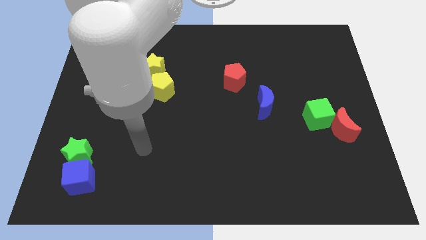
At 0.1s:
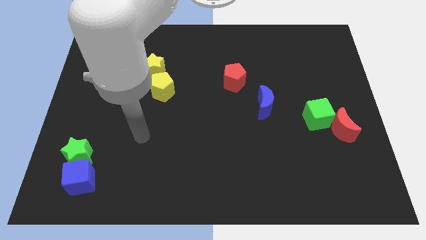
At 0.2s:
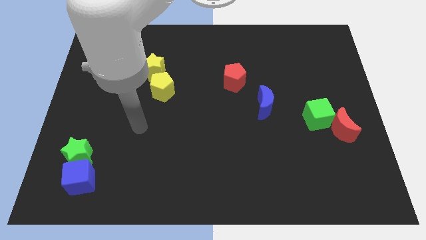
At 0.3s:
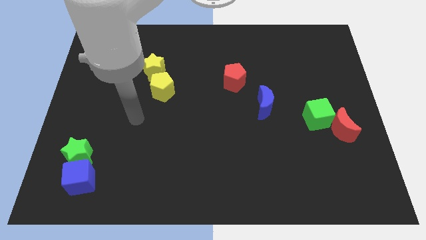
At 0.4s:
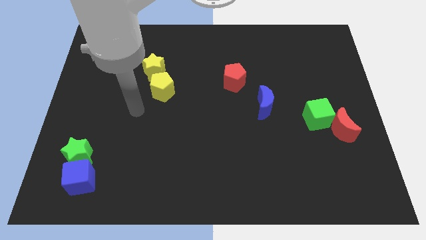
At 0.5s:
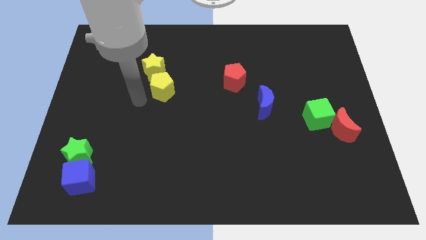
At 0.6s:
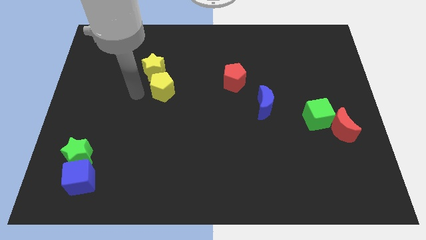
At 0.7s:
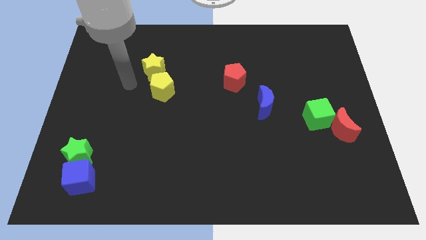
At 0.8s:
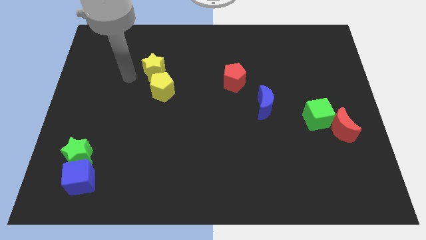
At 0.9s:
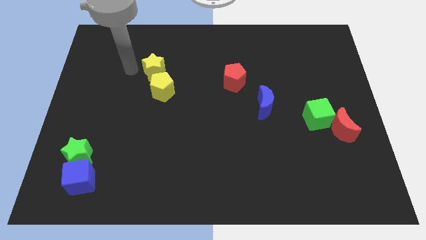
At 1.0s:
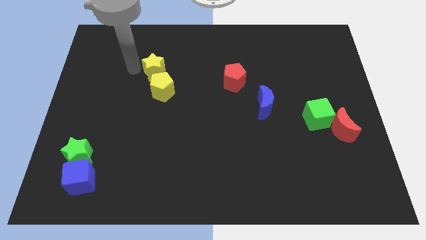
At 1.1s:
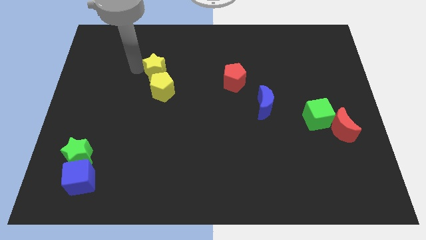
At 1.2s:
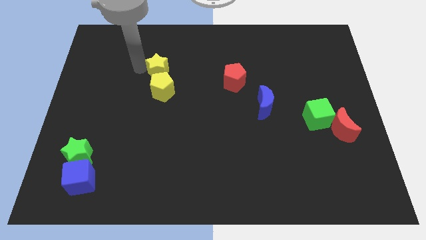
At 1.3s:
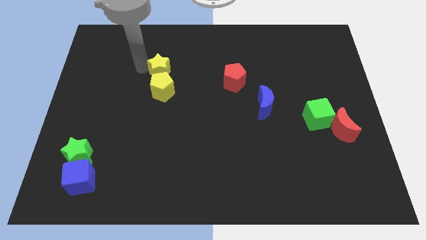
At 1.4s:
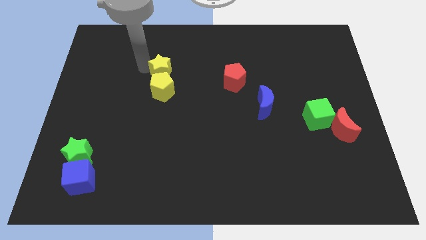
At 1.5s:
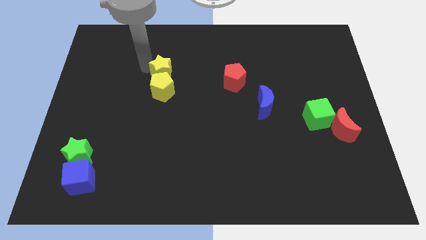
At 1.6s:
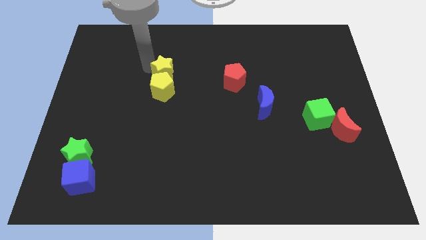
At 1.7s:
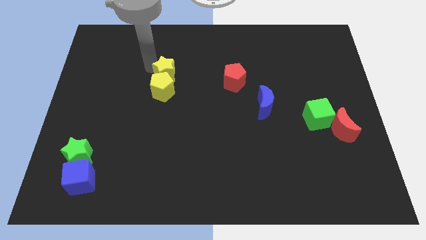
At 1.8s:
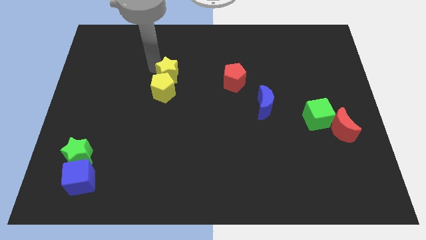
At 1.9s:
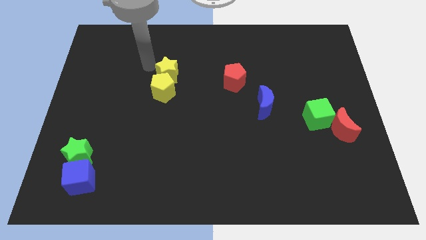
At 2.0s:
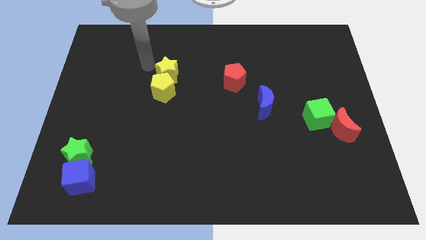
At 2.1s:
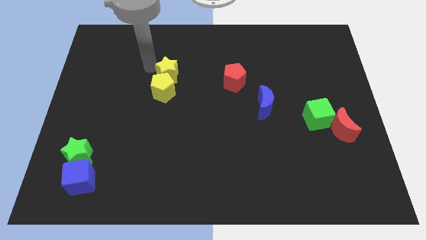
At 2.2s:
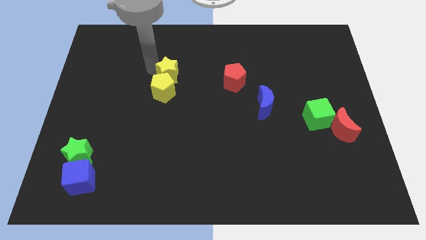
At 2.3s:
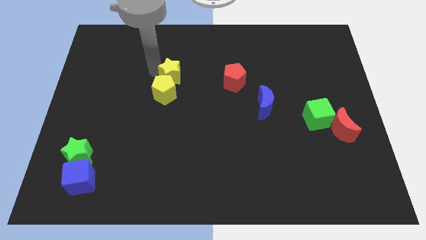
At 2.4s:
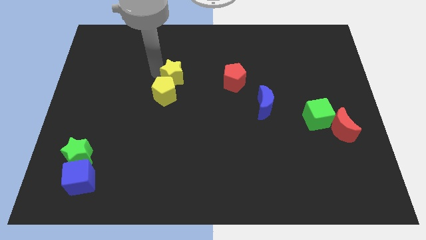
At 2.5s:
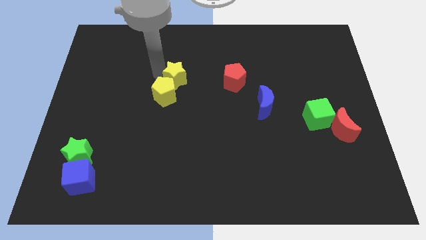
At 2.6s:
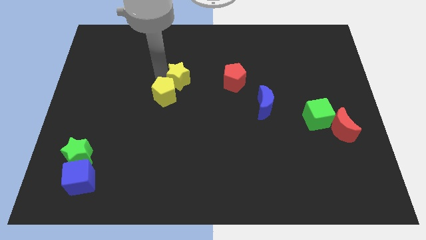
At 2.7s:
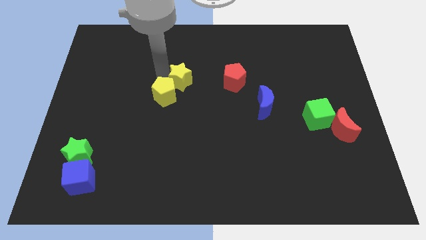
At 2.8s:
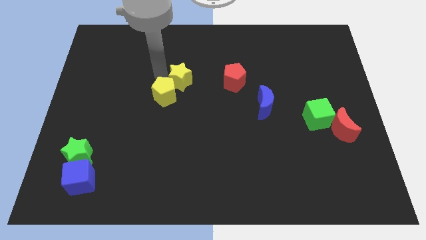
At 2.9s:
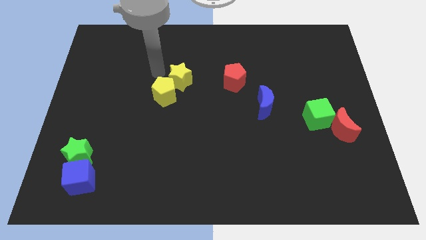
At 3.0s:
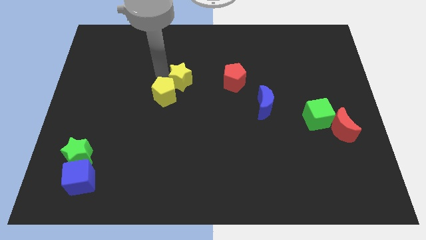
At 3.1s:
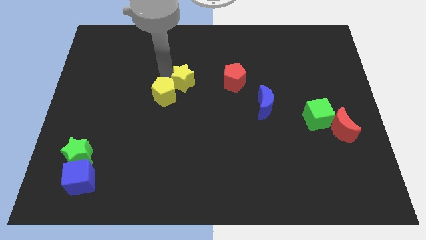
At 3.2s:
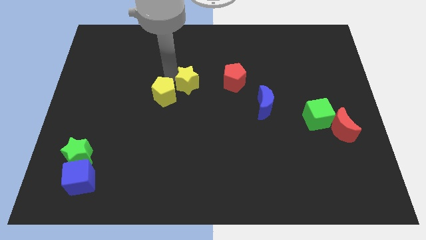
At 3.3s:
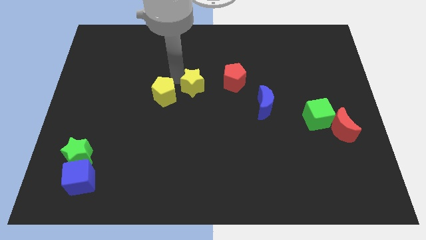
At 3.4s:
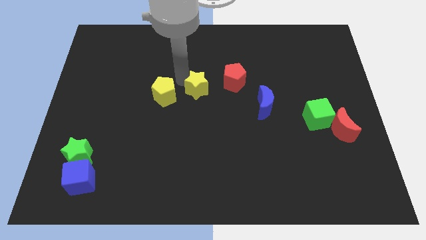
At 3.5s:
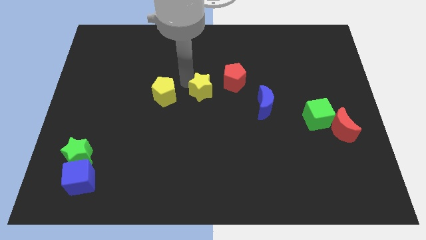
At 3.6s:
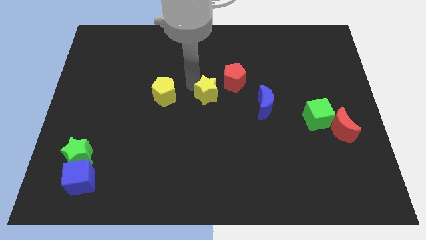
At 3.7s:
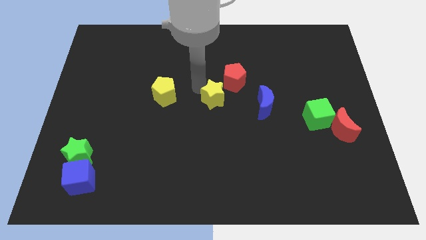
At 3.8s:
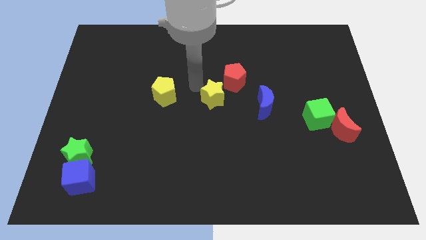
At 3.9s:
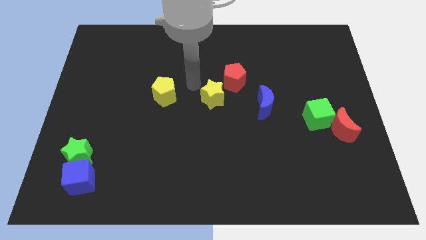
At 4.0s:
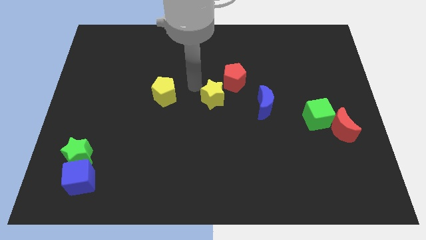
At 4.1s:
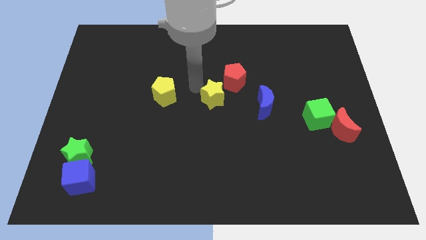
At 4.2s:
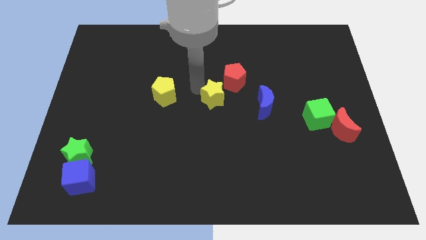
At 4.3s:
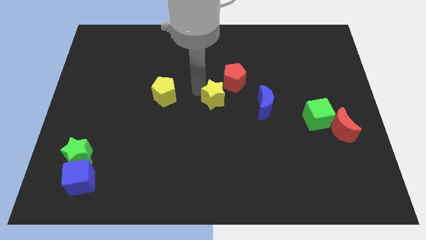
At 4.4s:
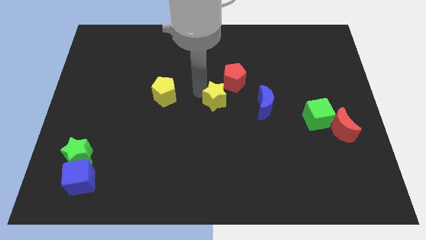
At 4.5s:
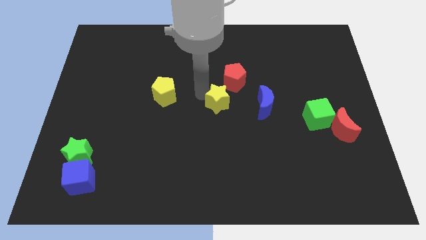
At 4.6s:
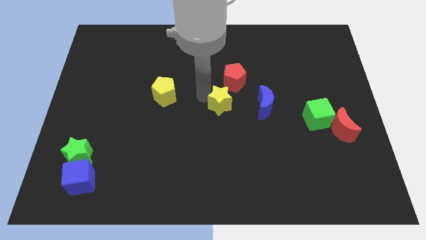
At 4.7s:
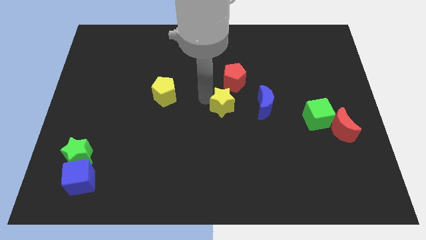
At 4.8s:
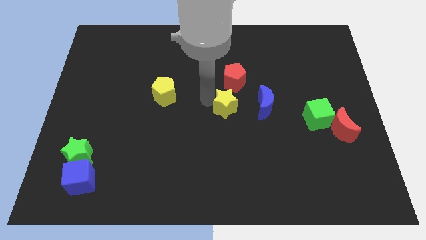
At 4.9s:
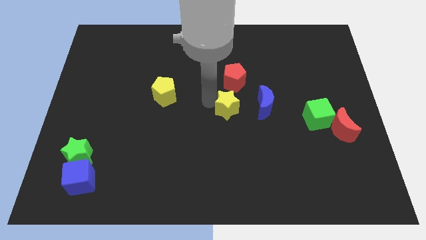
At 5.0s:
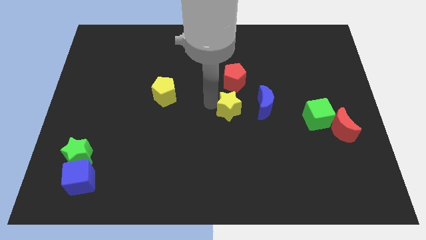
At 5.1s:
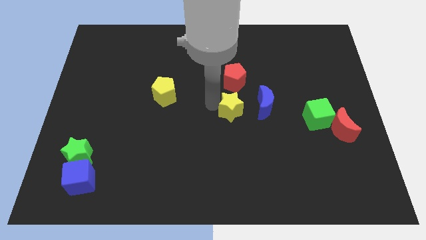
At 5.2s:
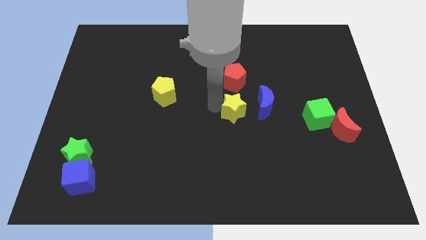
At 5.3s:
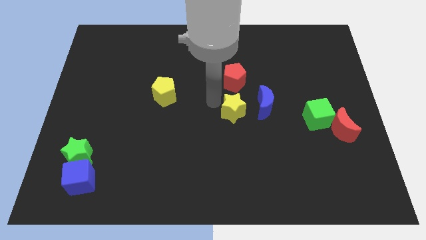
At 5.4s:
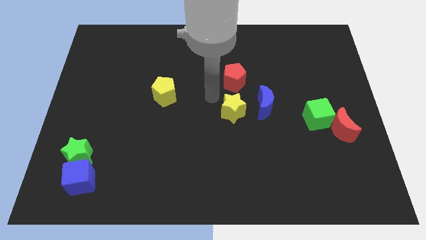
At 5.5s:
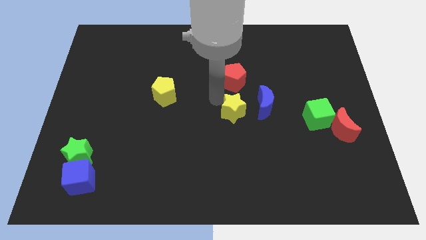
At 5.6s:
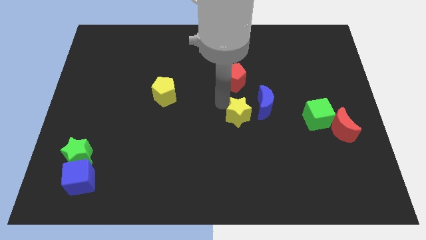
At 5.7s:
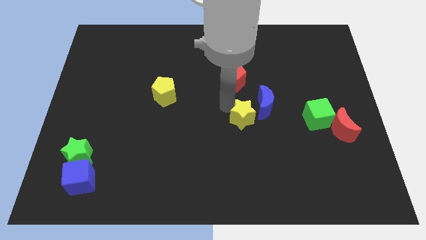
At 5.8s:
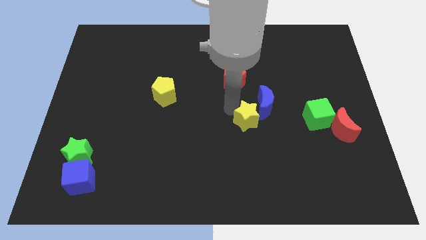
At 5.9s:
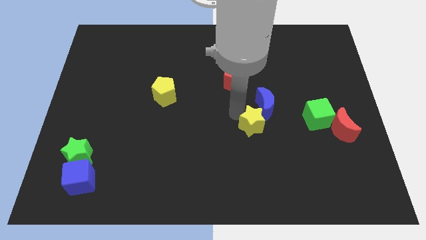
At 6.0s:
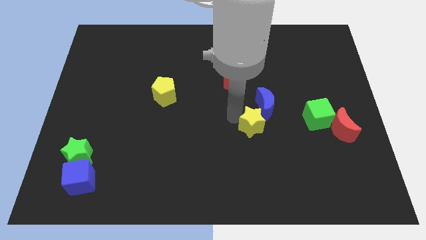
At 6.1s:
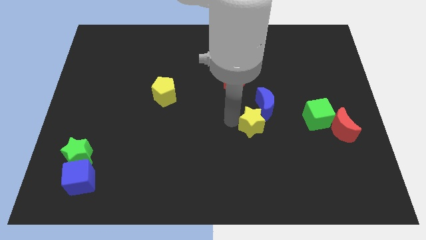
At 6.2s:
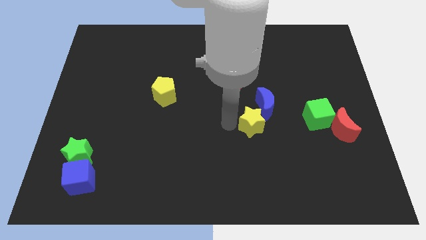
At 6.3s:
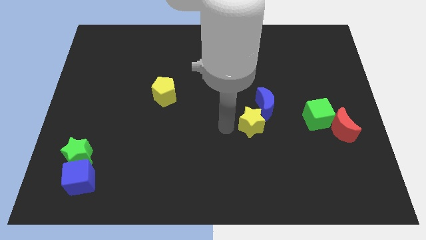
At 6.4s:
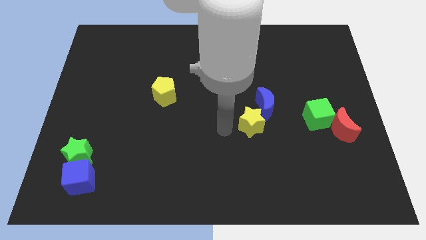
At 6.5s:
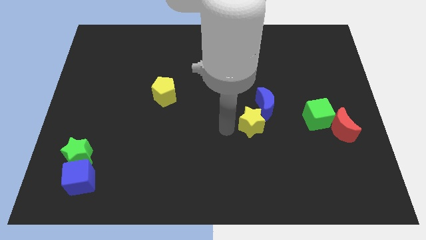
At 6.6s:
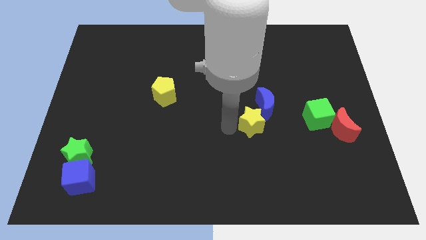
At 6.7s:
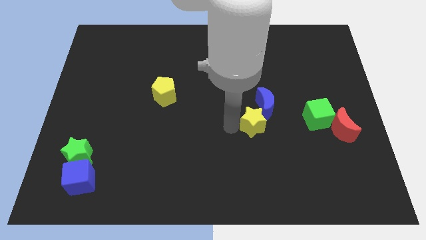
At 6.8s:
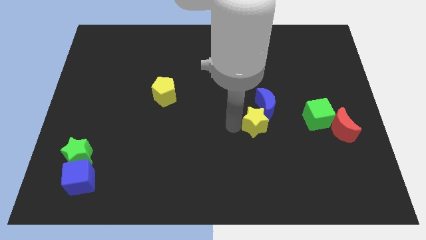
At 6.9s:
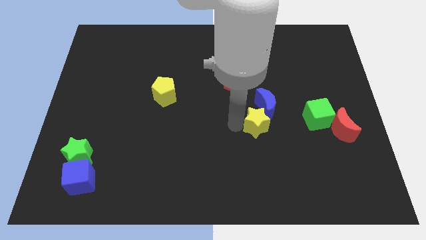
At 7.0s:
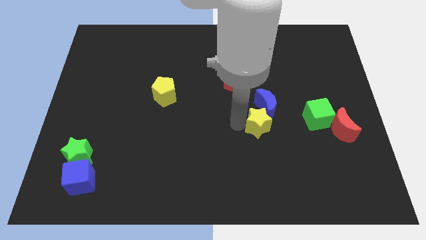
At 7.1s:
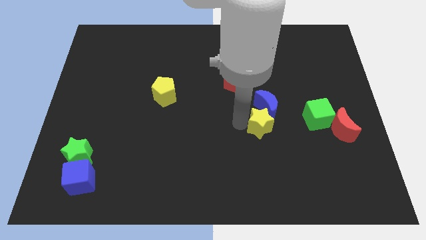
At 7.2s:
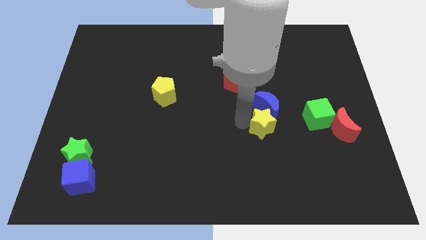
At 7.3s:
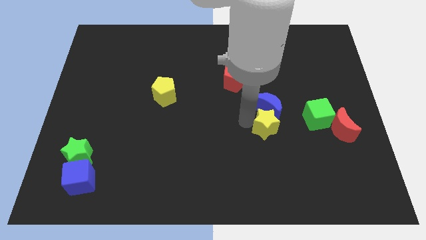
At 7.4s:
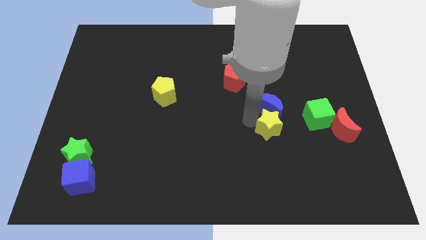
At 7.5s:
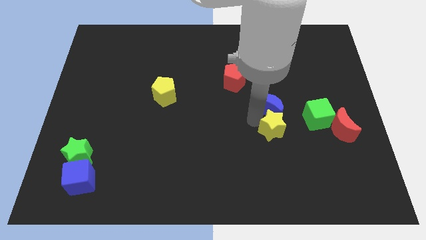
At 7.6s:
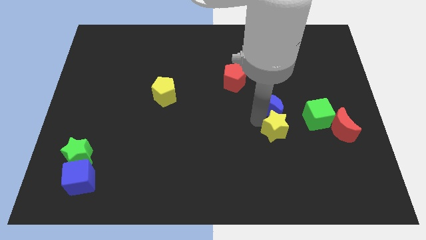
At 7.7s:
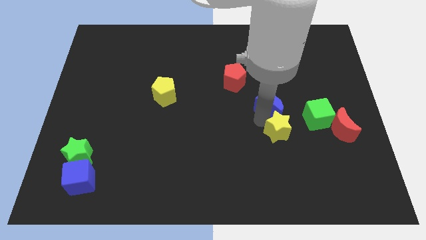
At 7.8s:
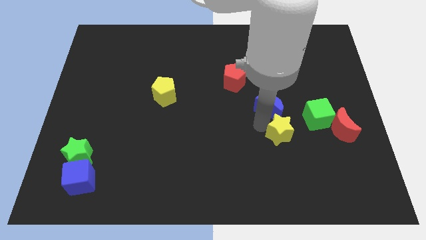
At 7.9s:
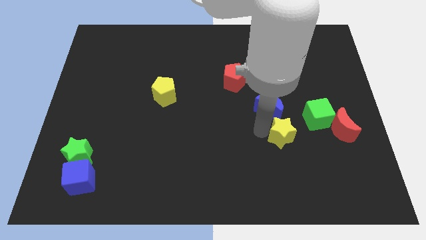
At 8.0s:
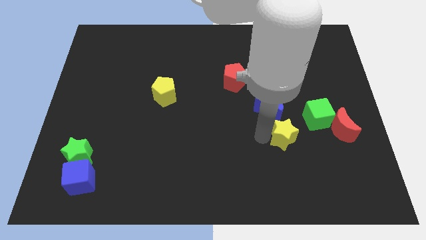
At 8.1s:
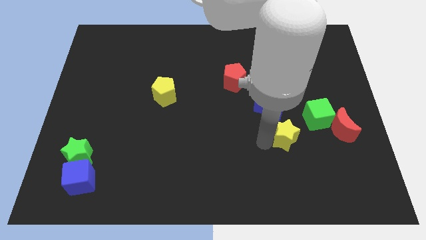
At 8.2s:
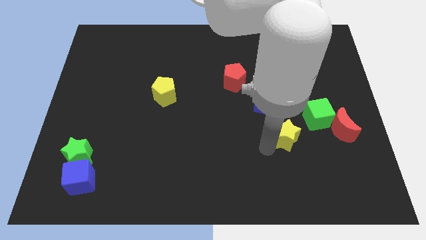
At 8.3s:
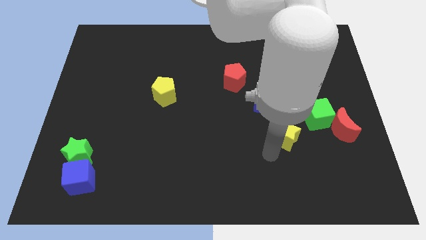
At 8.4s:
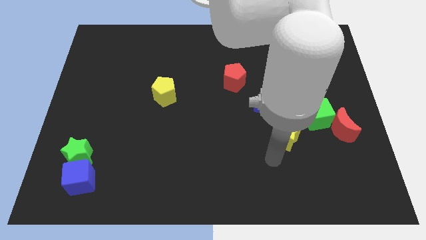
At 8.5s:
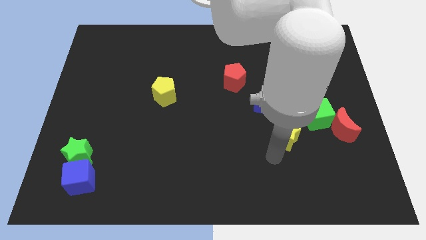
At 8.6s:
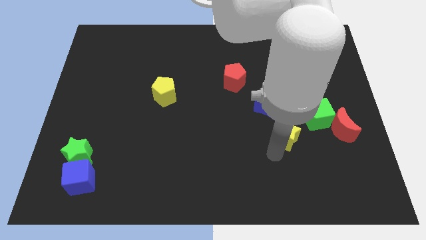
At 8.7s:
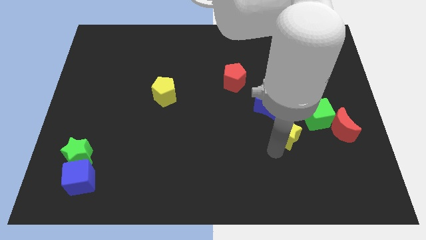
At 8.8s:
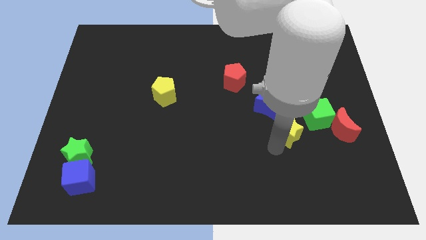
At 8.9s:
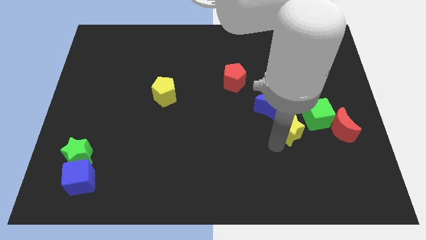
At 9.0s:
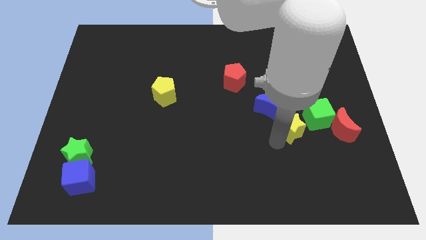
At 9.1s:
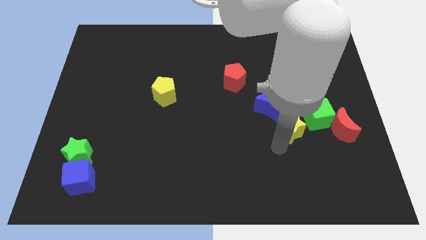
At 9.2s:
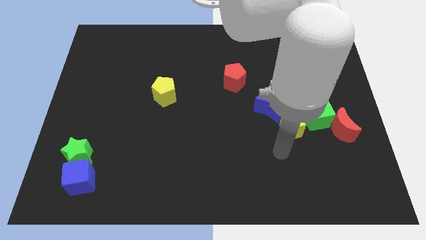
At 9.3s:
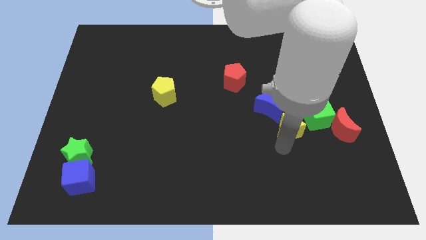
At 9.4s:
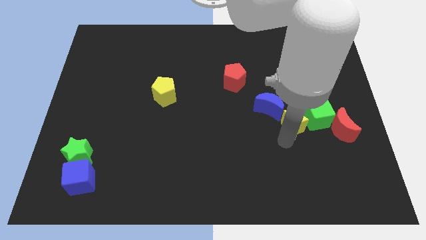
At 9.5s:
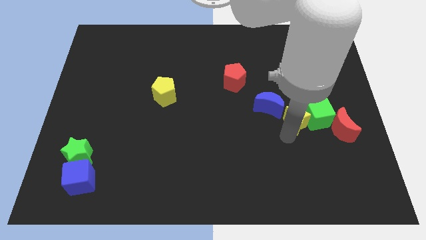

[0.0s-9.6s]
put the yellow star to the green cube
